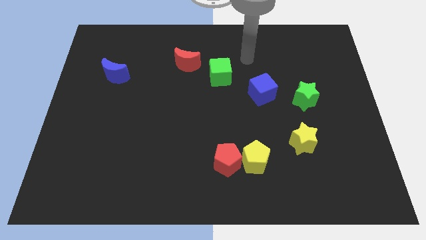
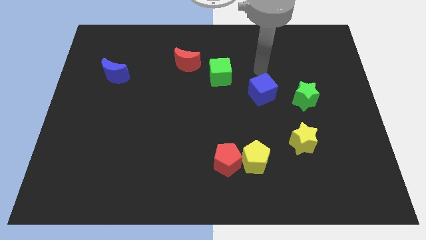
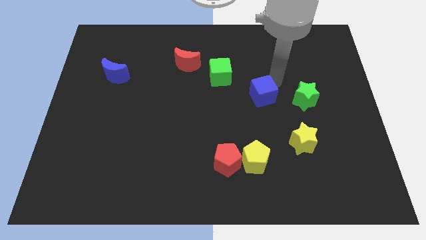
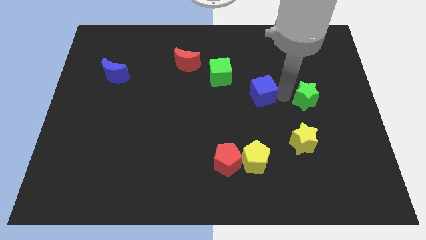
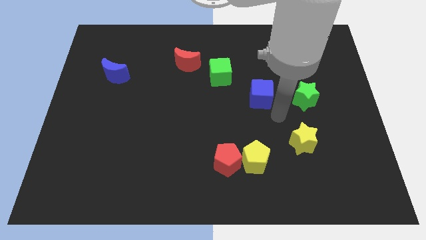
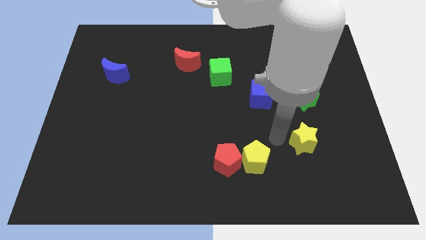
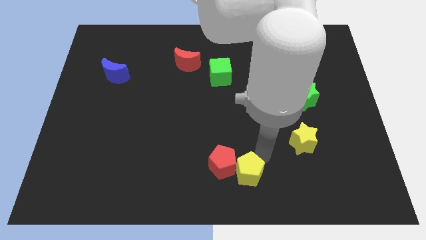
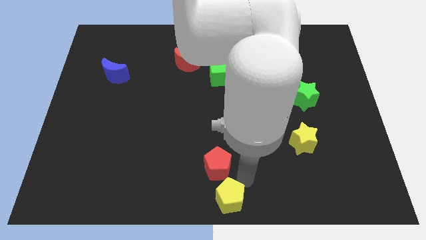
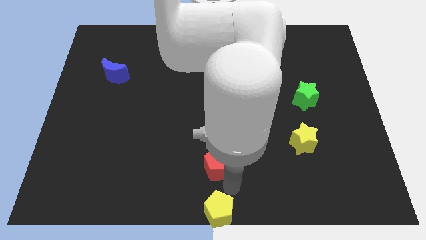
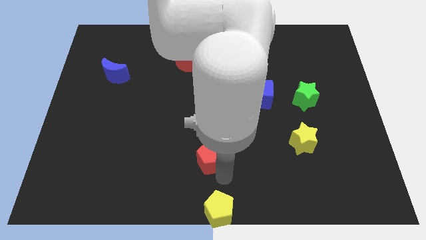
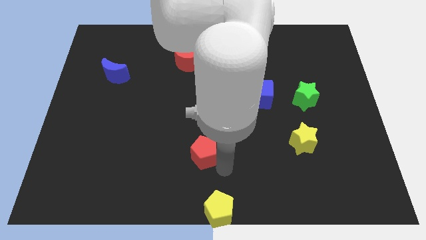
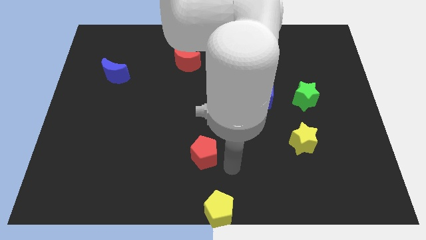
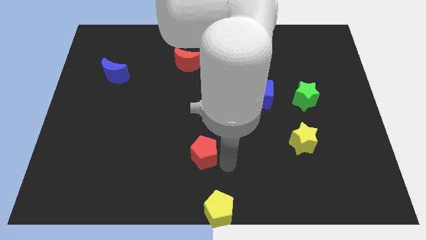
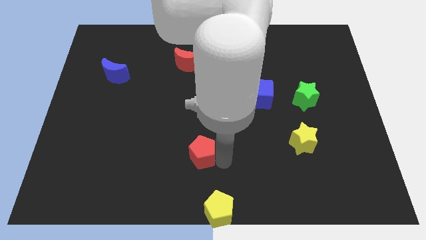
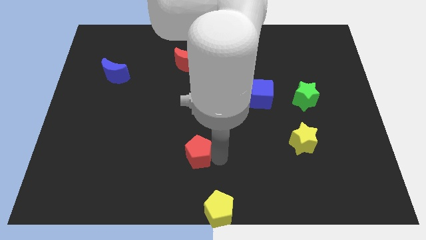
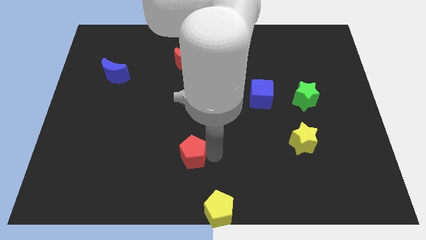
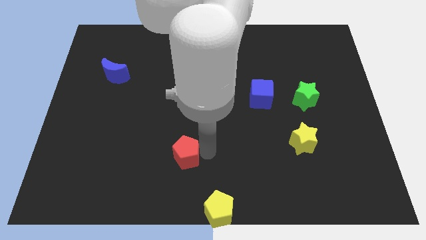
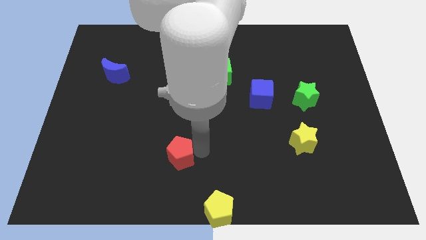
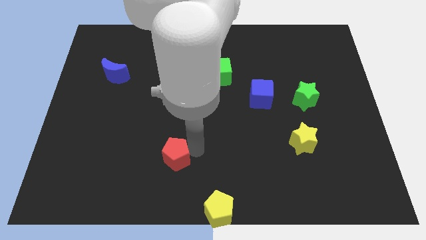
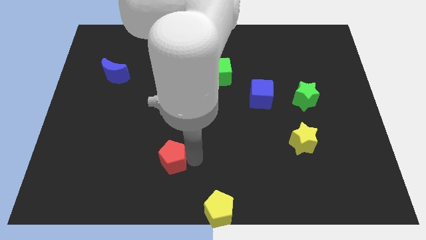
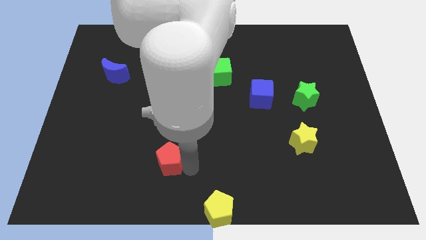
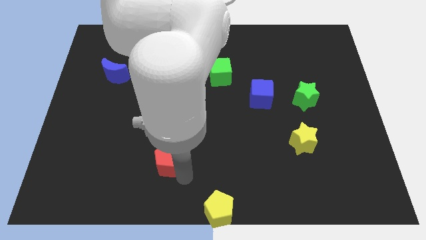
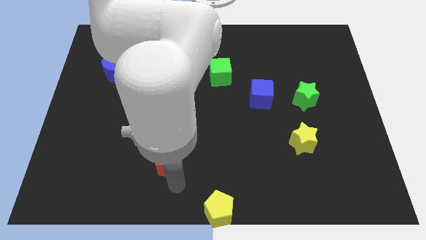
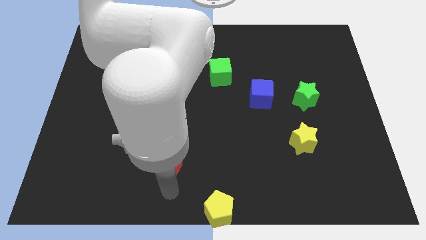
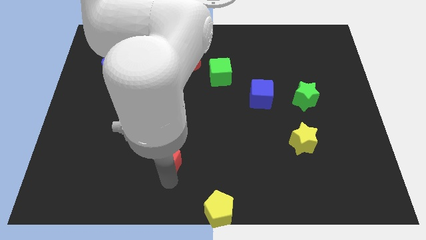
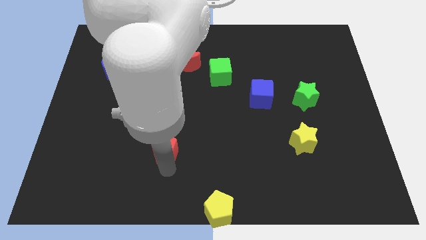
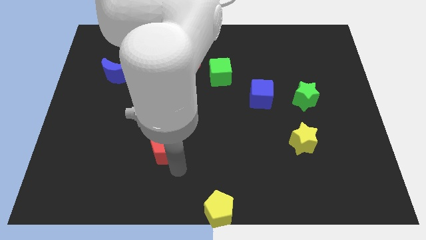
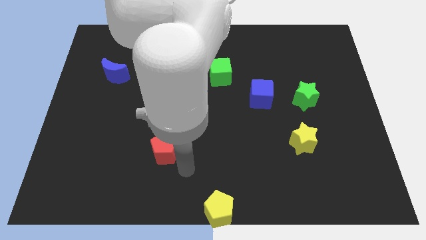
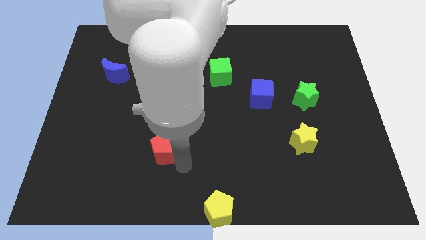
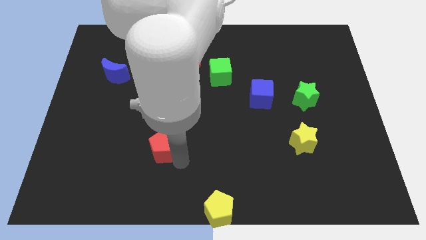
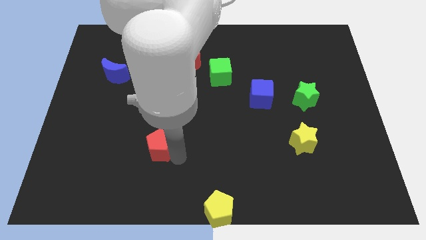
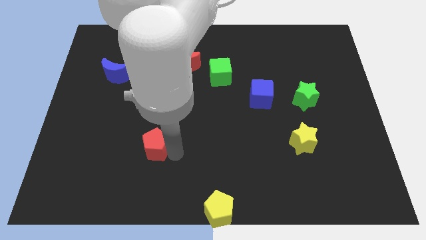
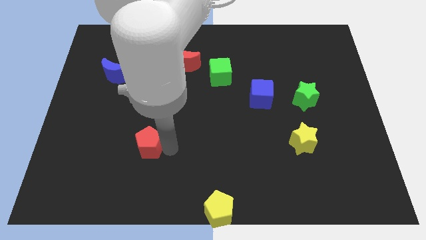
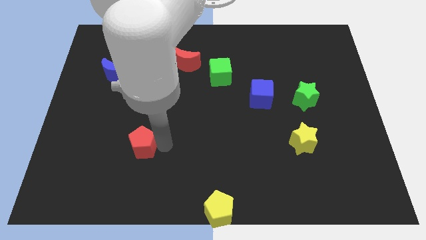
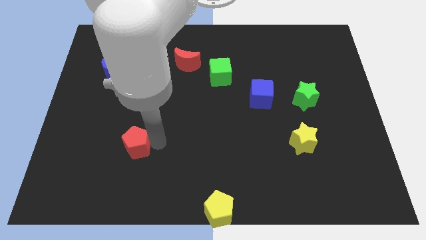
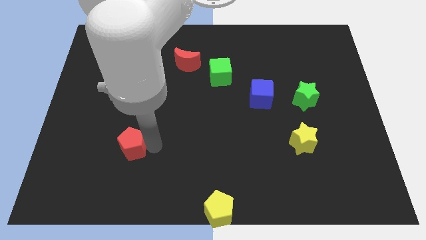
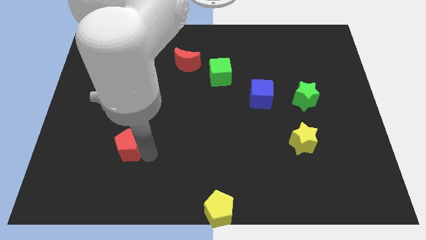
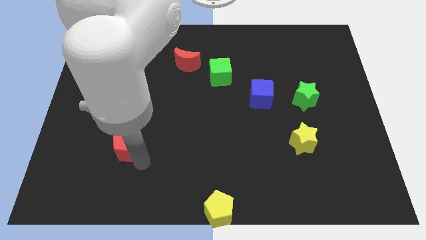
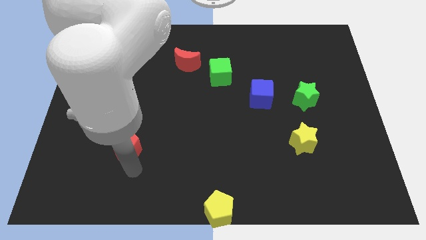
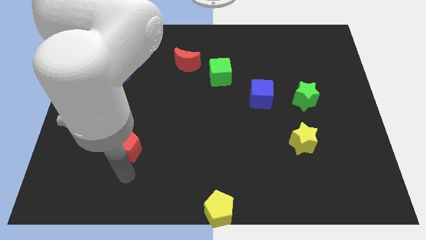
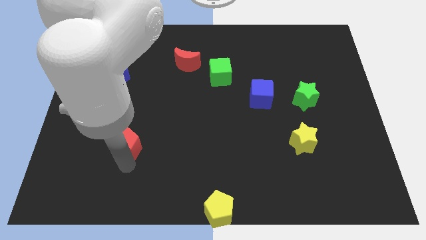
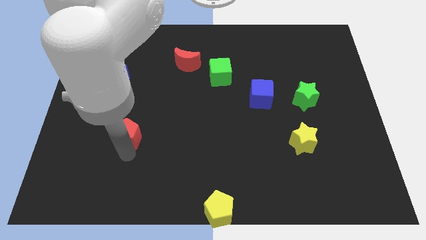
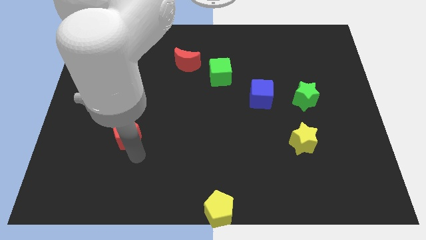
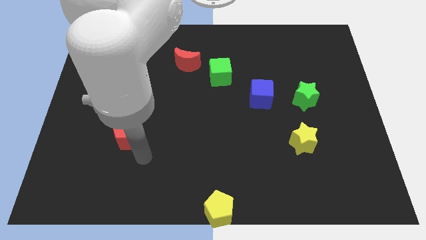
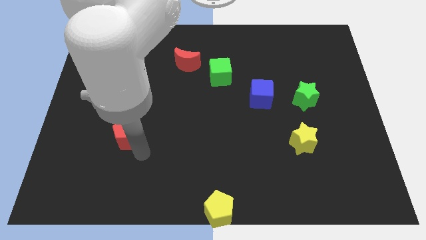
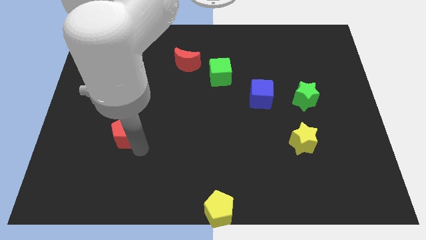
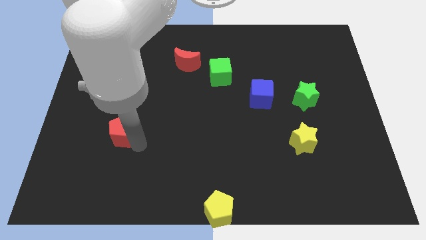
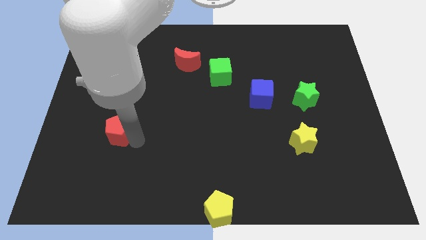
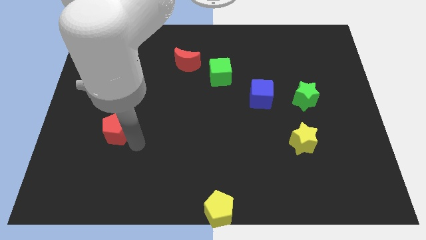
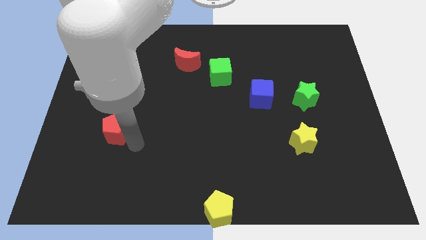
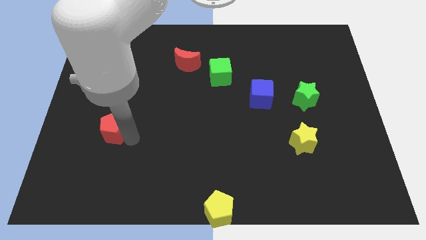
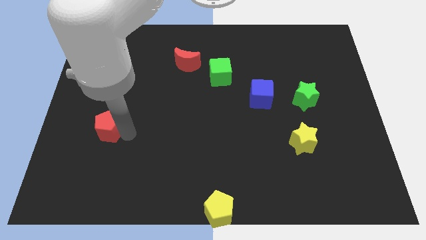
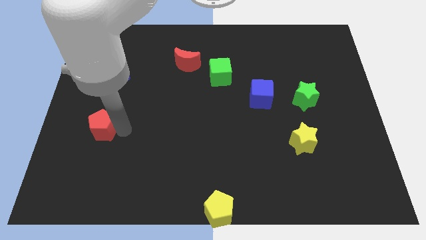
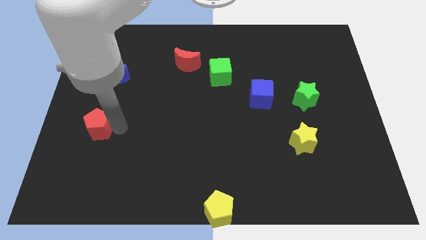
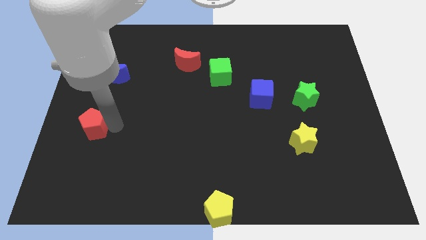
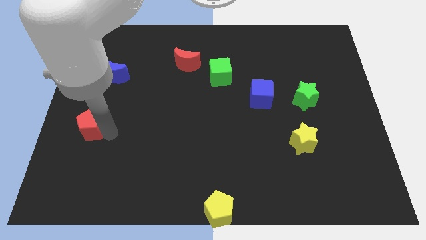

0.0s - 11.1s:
push the red pentagon to the left side of the board
